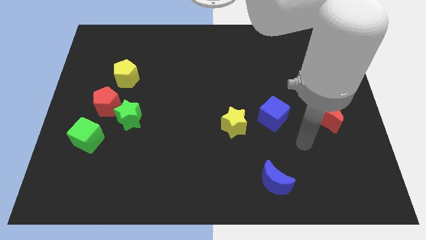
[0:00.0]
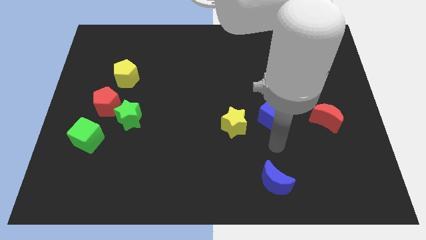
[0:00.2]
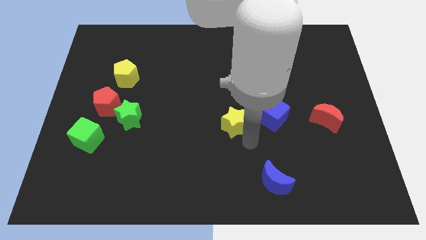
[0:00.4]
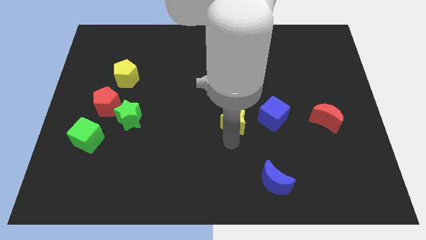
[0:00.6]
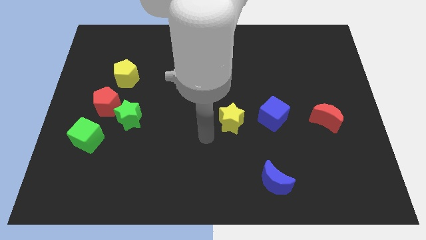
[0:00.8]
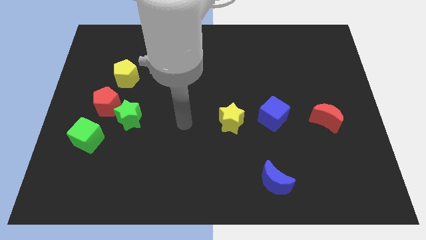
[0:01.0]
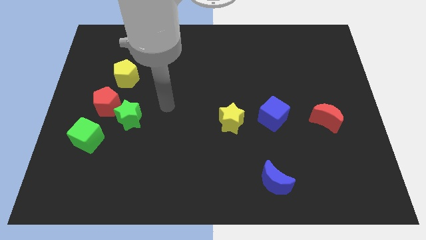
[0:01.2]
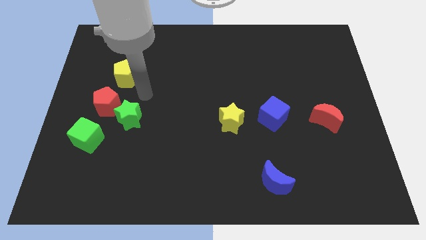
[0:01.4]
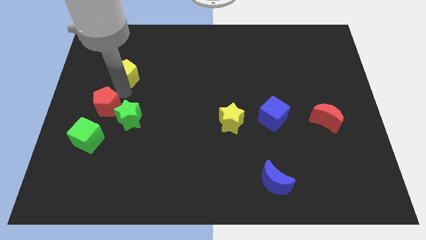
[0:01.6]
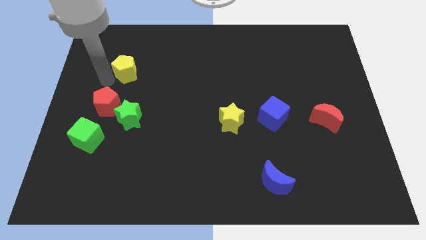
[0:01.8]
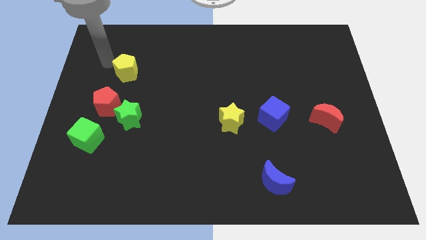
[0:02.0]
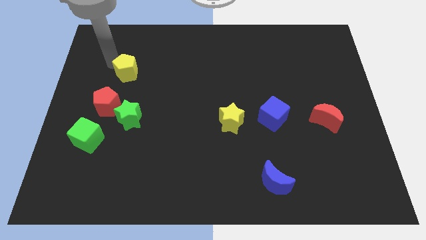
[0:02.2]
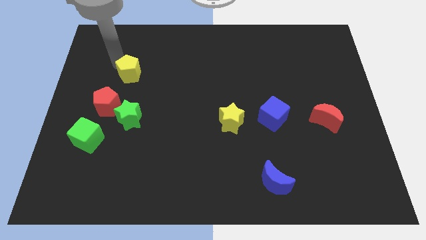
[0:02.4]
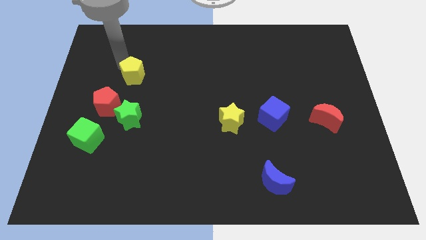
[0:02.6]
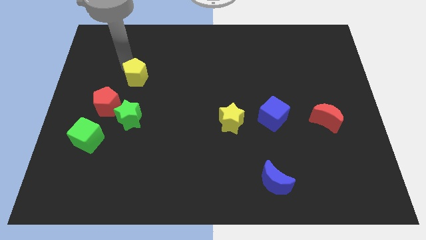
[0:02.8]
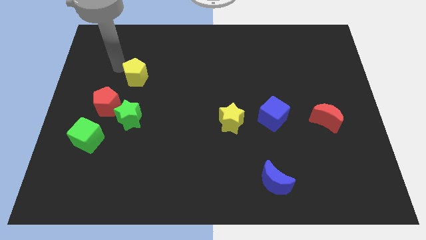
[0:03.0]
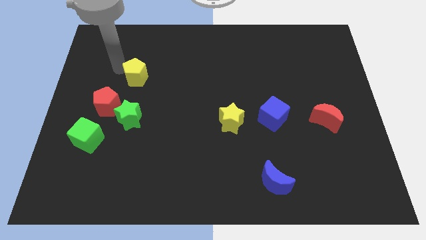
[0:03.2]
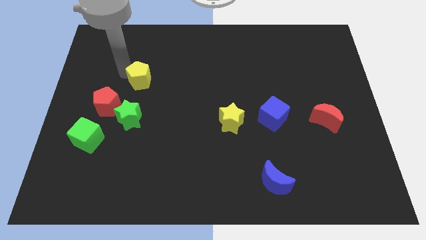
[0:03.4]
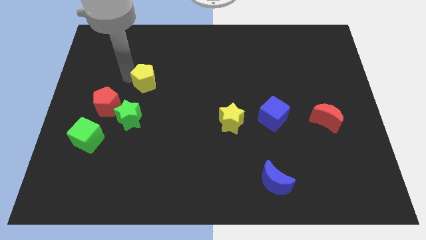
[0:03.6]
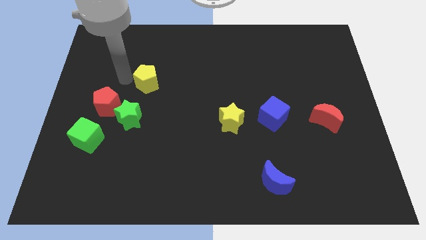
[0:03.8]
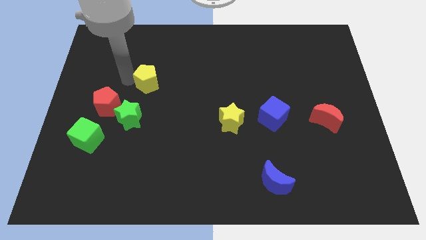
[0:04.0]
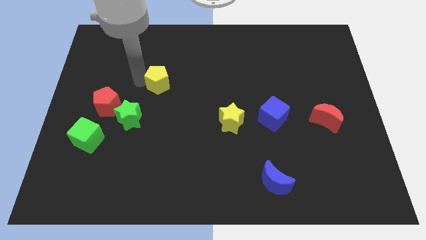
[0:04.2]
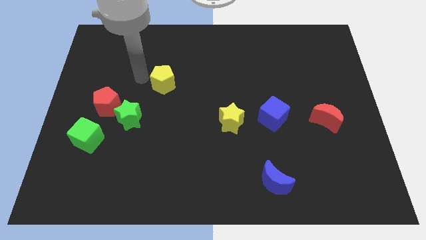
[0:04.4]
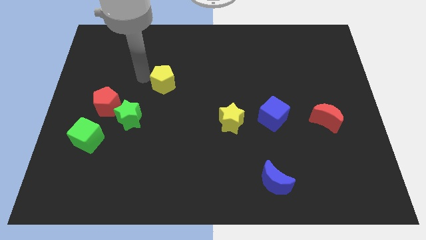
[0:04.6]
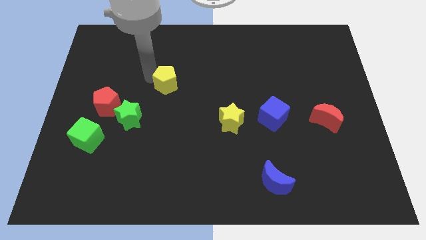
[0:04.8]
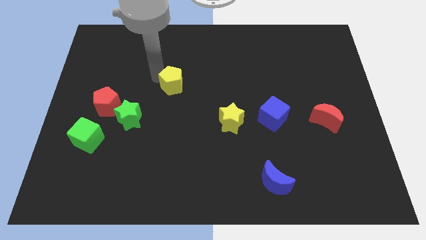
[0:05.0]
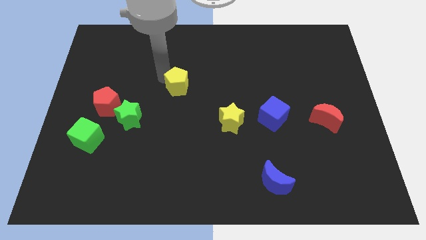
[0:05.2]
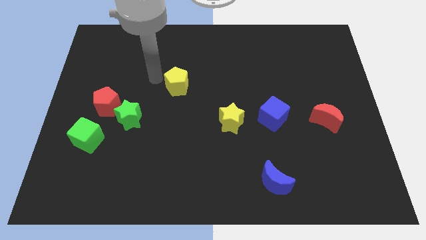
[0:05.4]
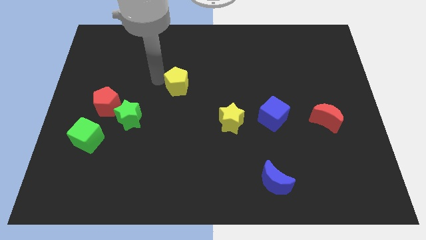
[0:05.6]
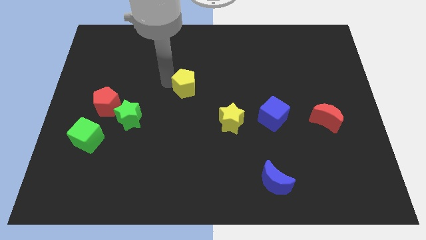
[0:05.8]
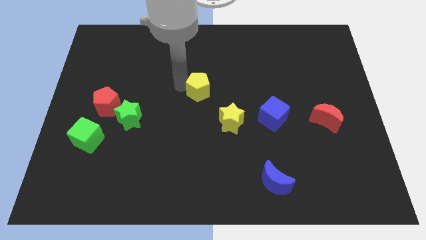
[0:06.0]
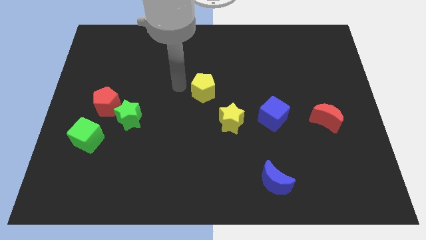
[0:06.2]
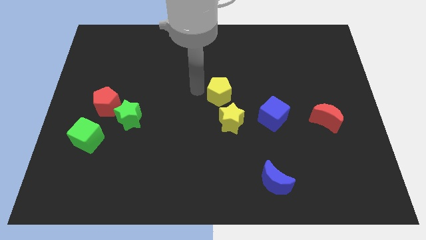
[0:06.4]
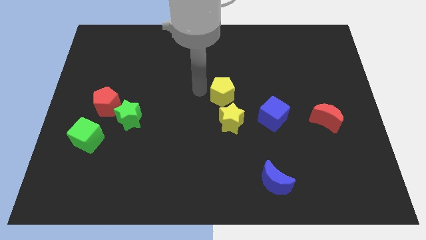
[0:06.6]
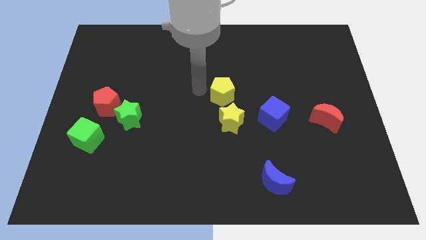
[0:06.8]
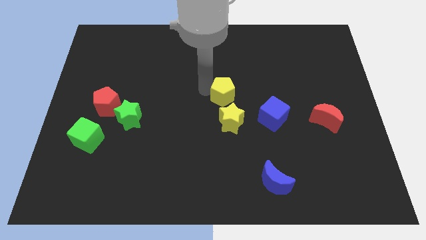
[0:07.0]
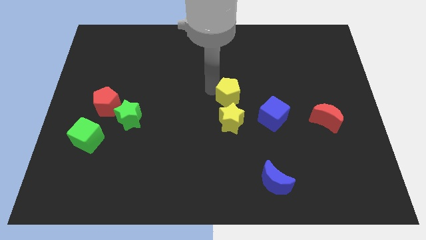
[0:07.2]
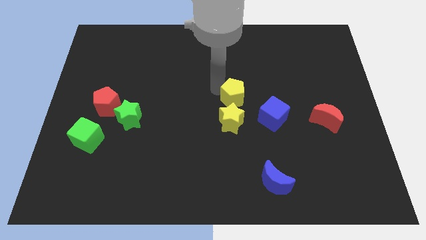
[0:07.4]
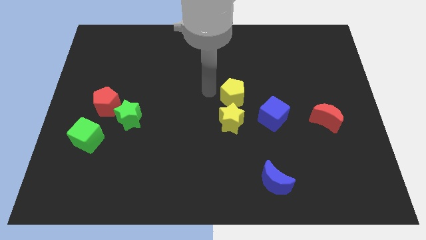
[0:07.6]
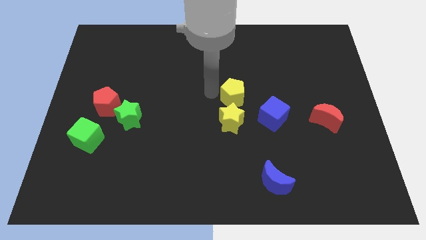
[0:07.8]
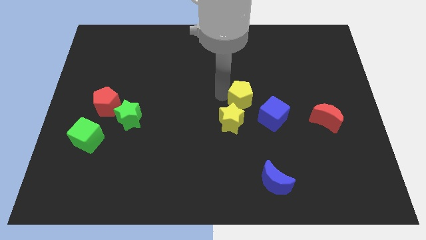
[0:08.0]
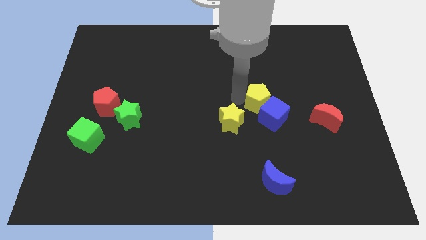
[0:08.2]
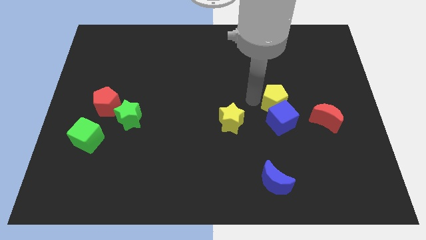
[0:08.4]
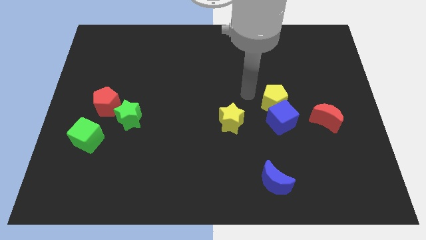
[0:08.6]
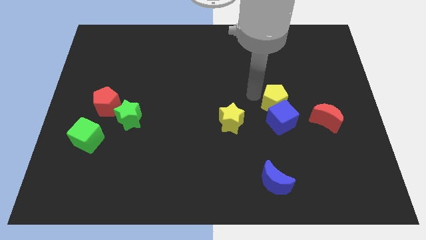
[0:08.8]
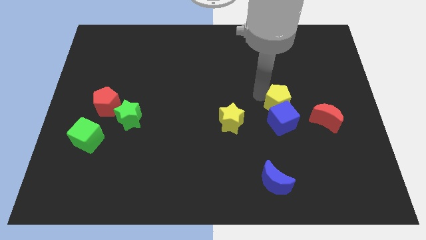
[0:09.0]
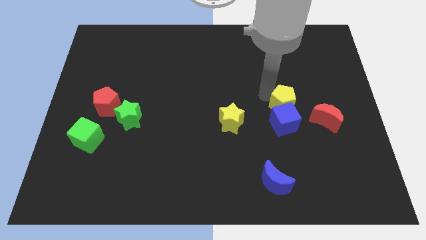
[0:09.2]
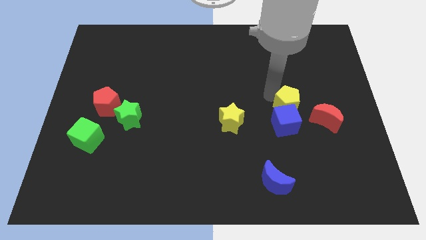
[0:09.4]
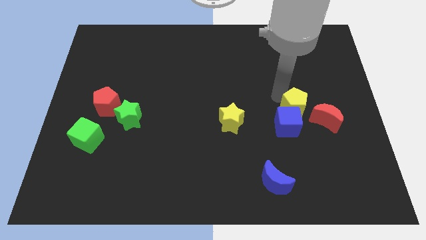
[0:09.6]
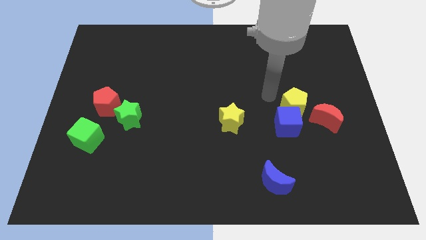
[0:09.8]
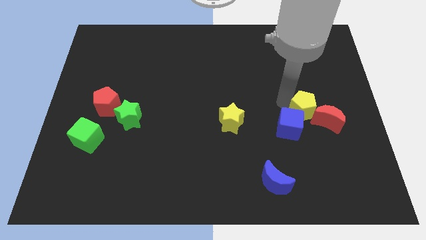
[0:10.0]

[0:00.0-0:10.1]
put the yellow pentagon next to the red moon

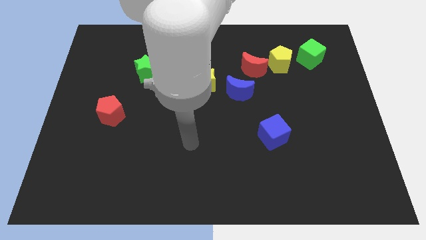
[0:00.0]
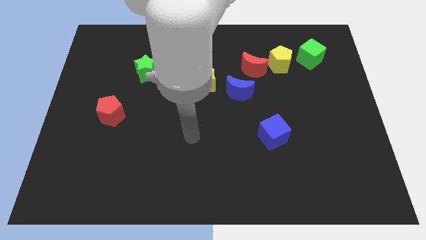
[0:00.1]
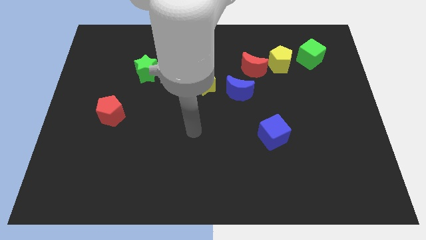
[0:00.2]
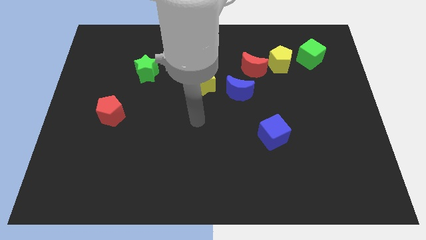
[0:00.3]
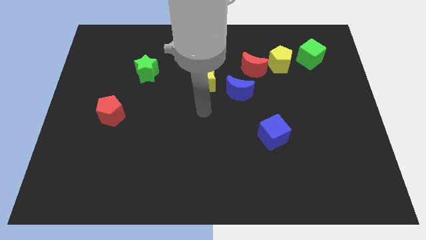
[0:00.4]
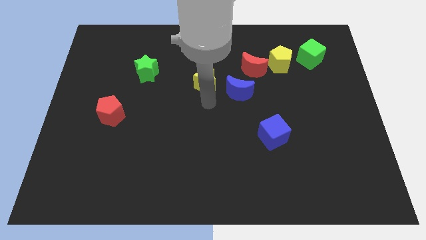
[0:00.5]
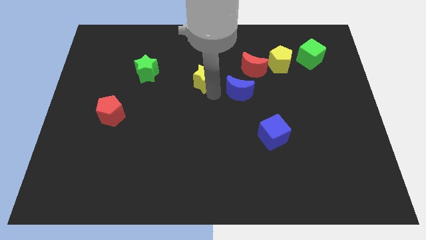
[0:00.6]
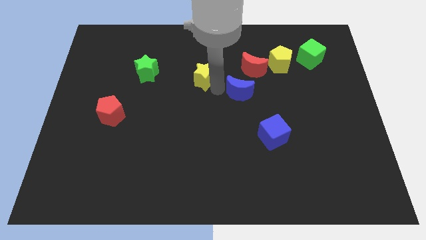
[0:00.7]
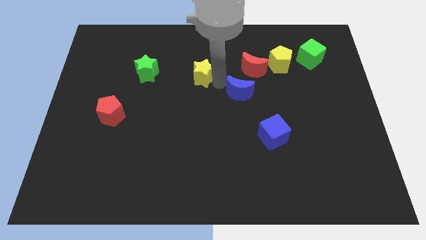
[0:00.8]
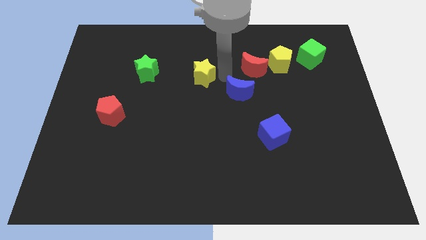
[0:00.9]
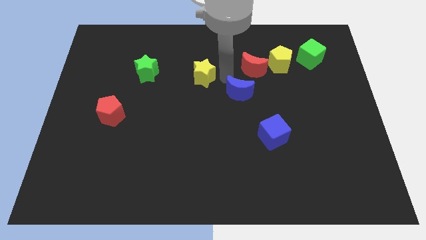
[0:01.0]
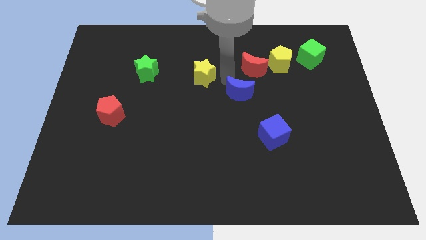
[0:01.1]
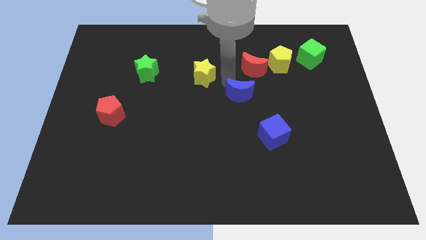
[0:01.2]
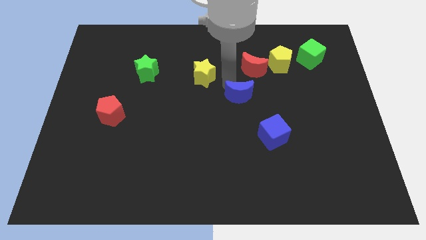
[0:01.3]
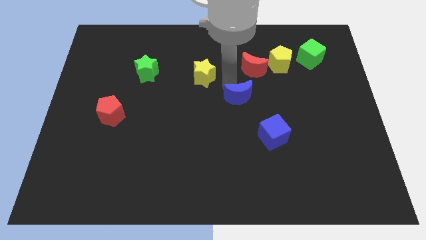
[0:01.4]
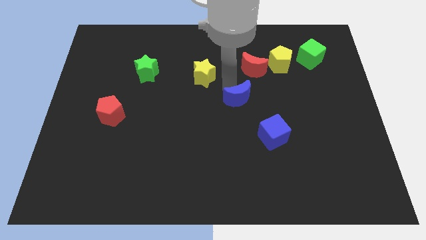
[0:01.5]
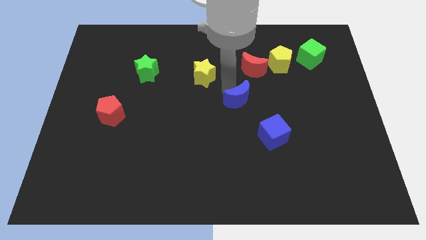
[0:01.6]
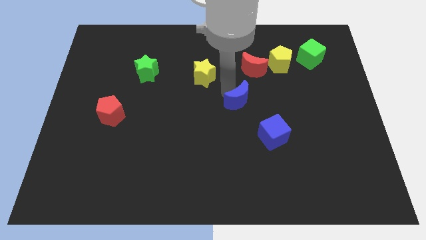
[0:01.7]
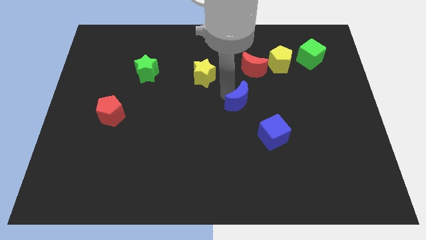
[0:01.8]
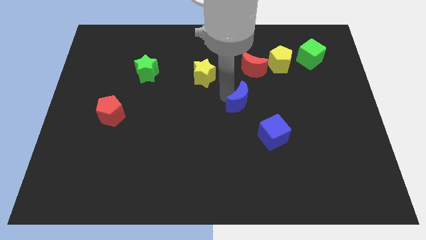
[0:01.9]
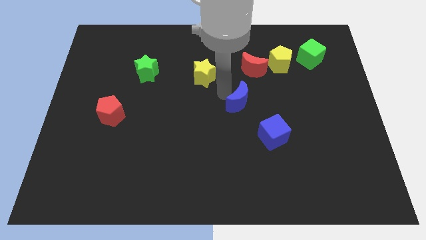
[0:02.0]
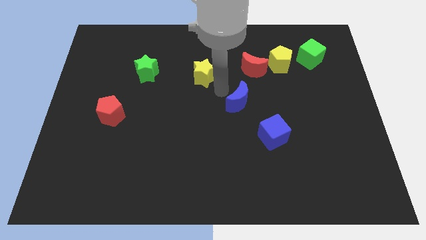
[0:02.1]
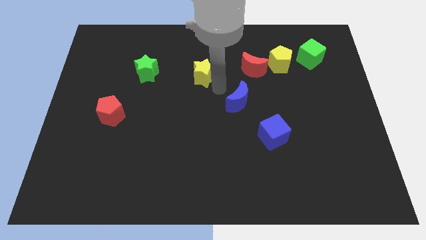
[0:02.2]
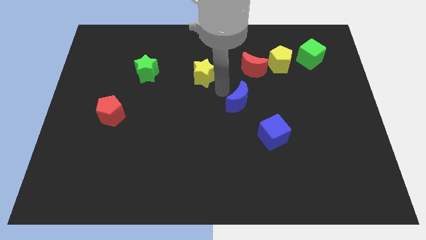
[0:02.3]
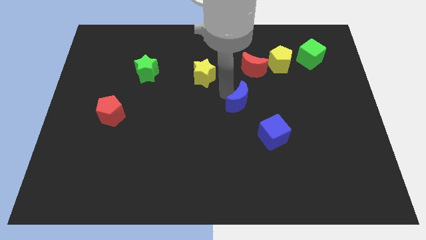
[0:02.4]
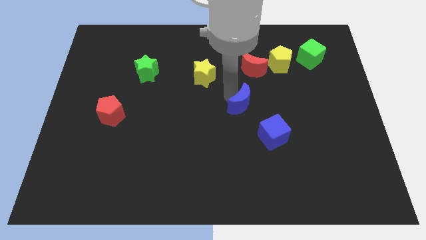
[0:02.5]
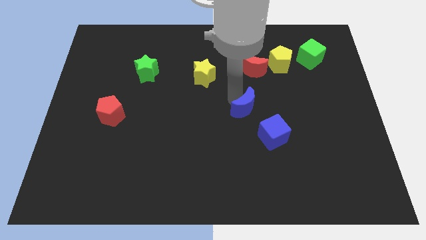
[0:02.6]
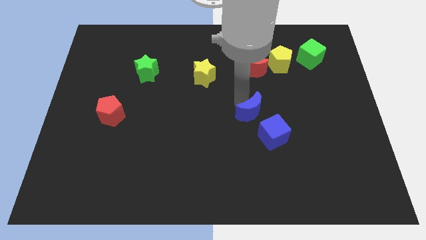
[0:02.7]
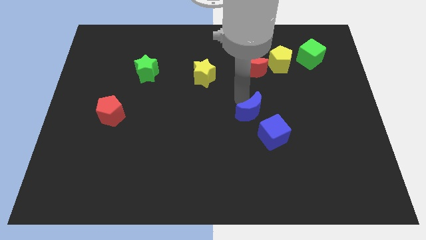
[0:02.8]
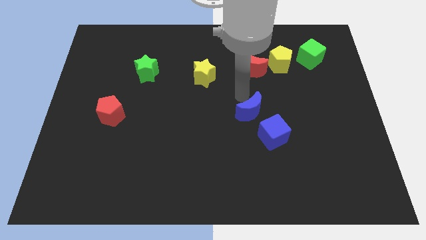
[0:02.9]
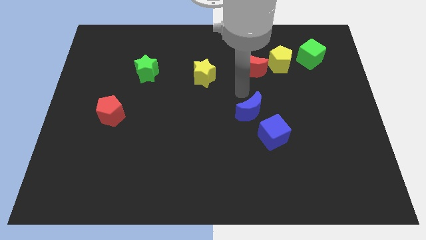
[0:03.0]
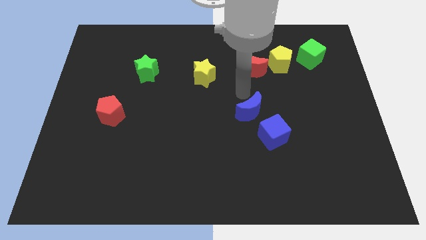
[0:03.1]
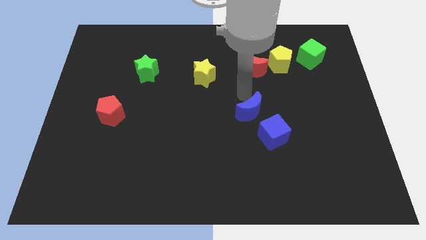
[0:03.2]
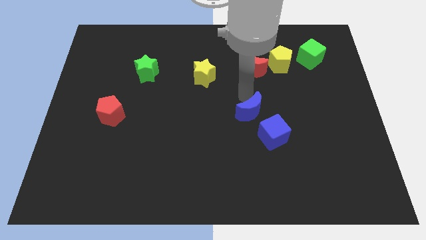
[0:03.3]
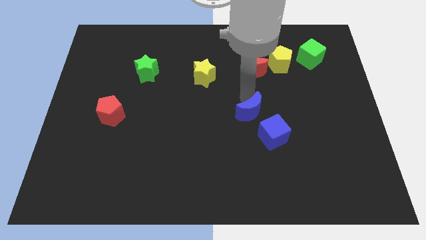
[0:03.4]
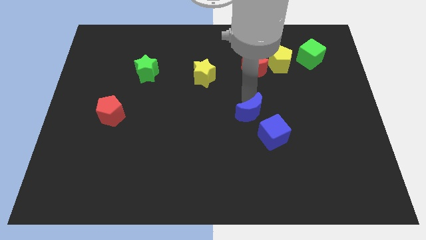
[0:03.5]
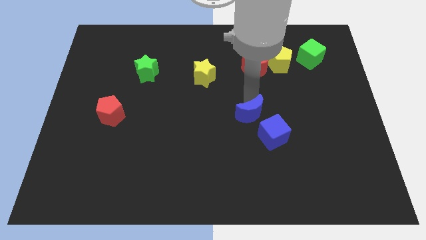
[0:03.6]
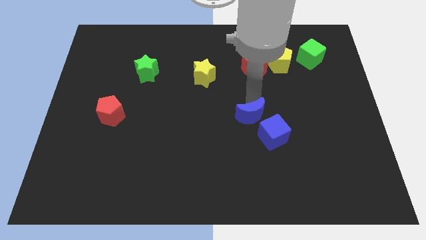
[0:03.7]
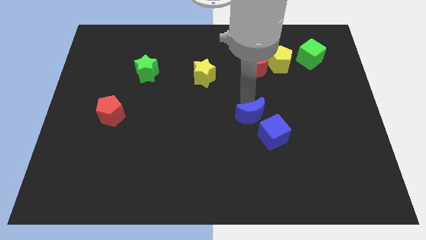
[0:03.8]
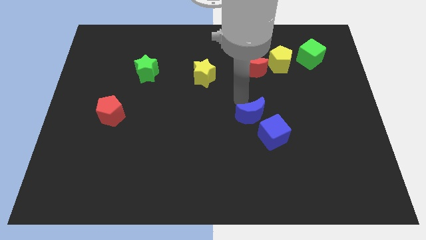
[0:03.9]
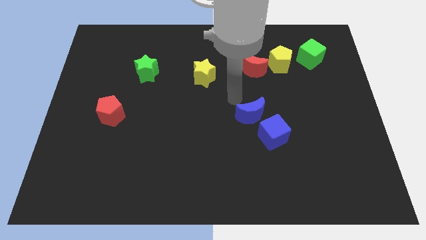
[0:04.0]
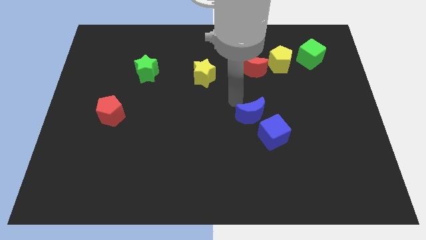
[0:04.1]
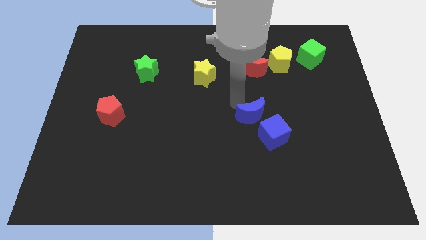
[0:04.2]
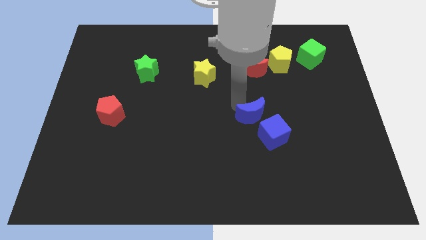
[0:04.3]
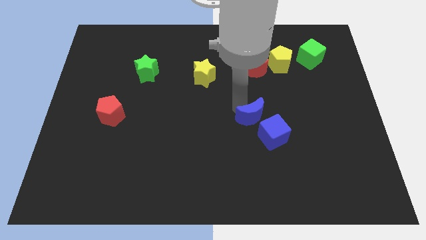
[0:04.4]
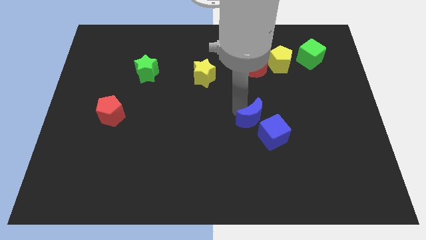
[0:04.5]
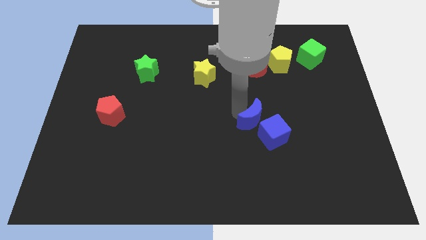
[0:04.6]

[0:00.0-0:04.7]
put the blue moon close to the blue cube
